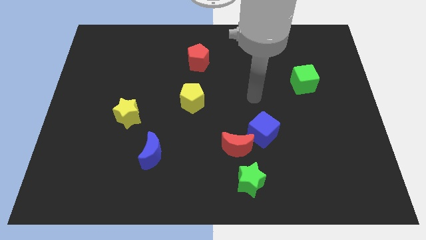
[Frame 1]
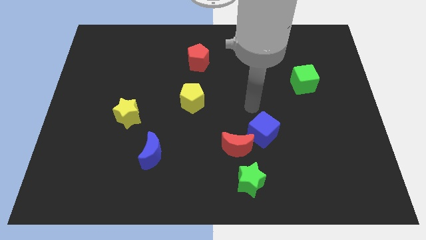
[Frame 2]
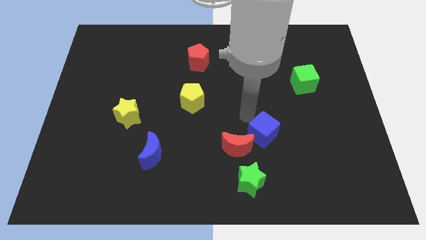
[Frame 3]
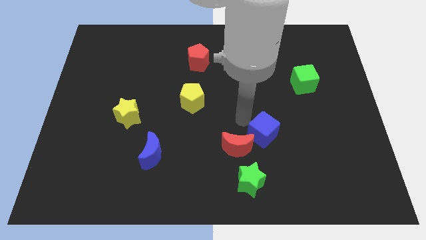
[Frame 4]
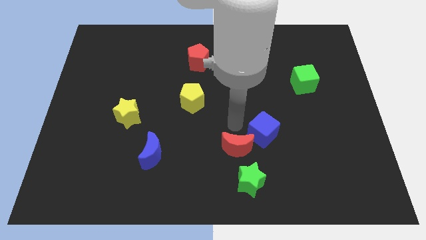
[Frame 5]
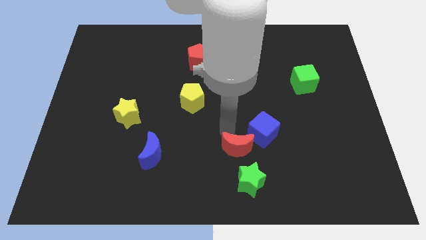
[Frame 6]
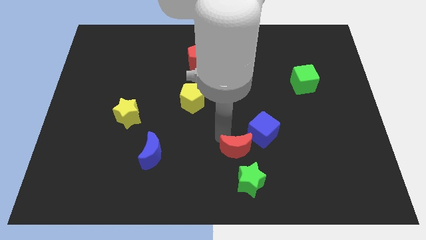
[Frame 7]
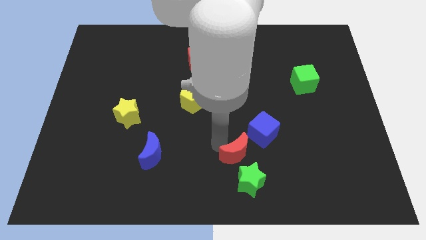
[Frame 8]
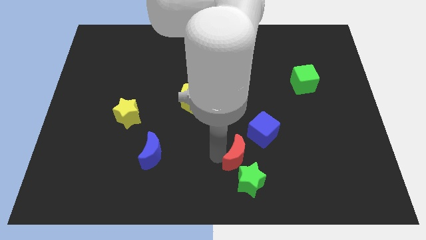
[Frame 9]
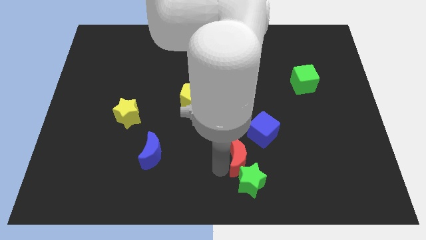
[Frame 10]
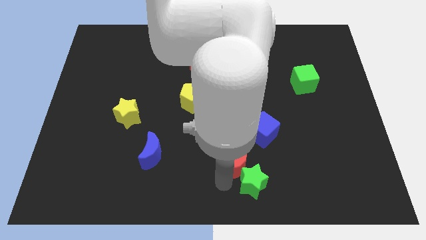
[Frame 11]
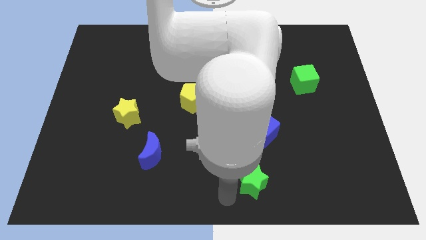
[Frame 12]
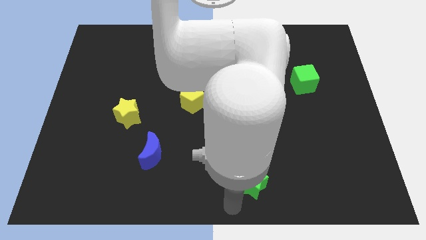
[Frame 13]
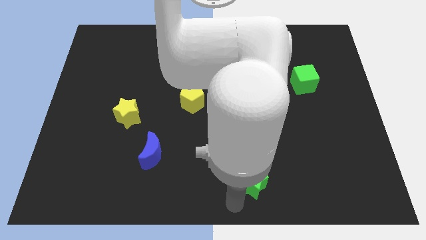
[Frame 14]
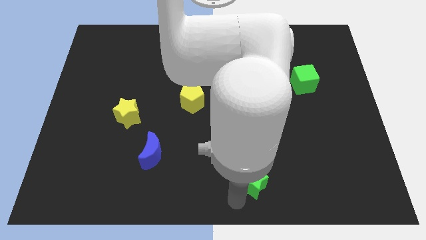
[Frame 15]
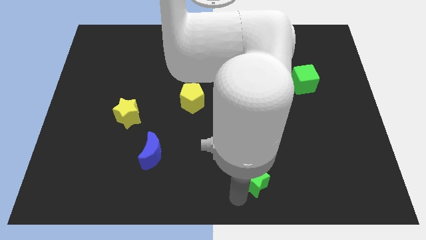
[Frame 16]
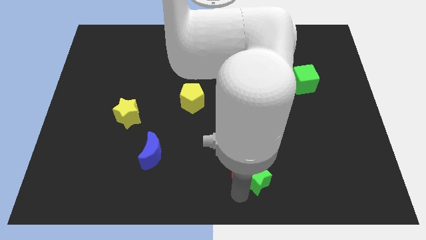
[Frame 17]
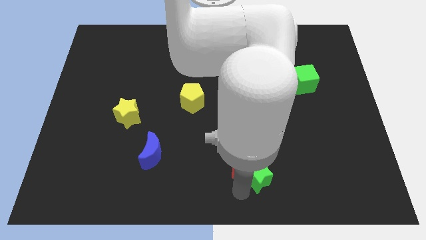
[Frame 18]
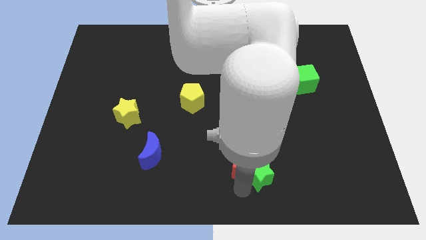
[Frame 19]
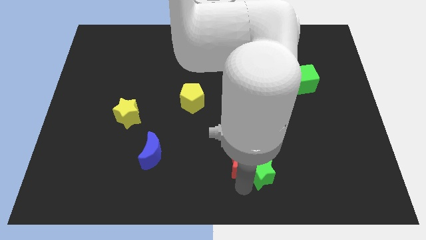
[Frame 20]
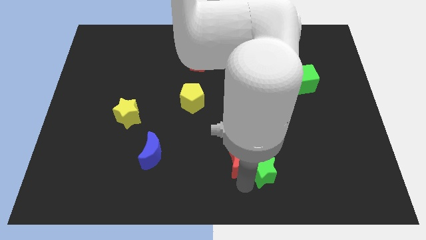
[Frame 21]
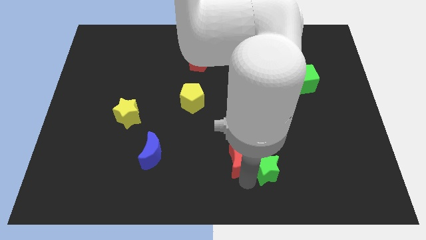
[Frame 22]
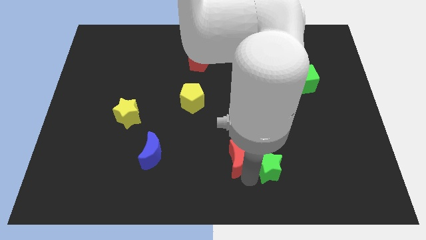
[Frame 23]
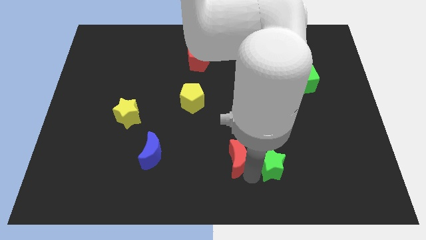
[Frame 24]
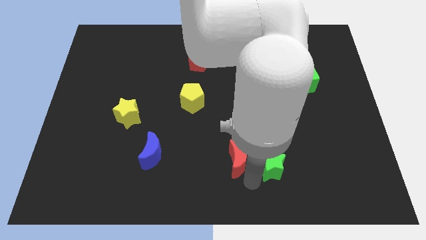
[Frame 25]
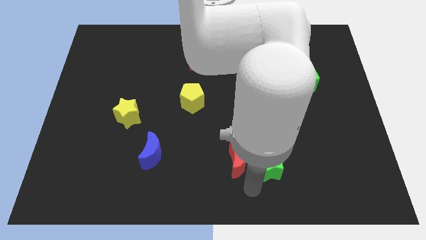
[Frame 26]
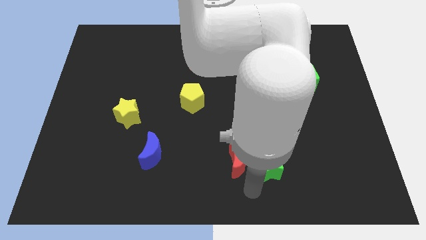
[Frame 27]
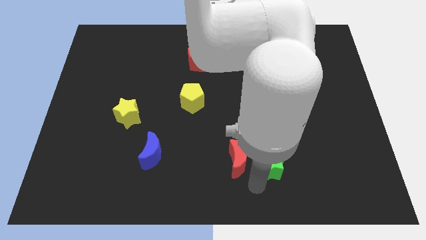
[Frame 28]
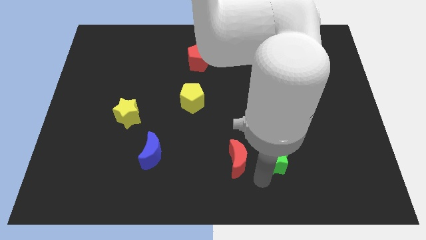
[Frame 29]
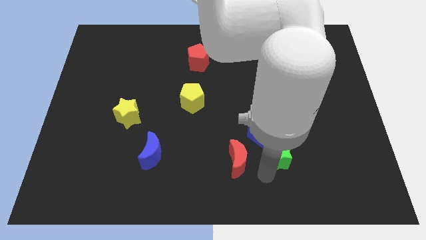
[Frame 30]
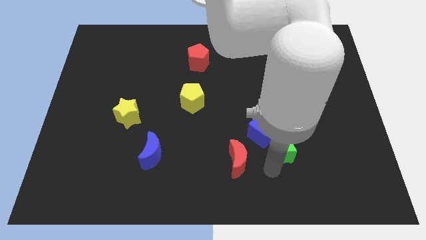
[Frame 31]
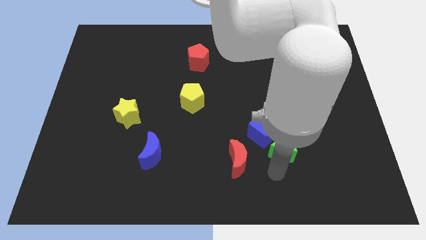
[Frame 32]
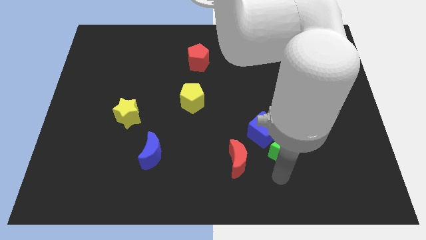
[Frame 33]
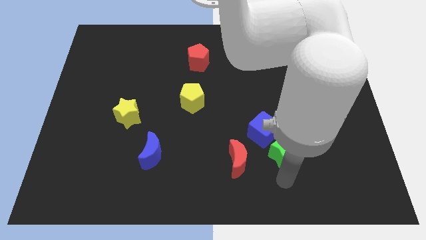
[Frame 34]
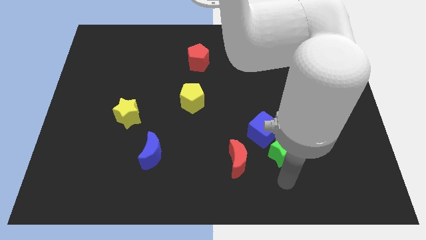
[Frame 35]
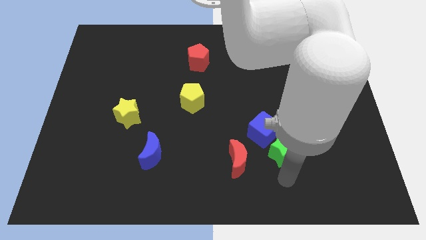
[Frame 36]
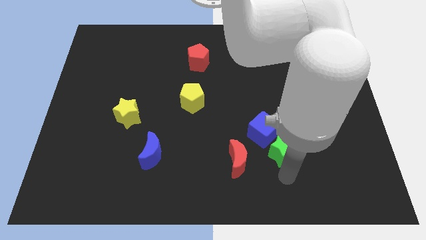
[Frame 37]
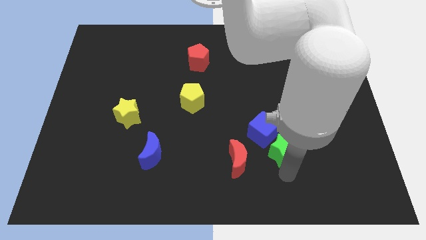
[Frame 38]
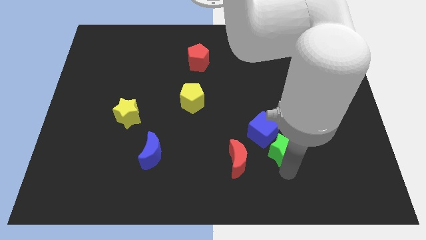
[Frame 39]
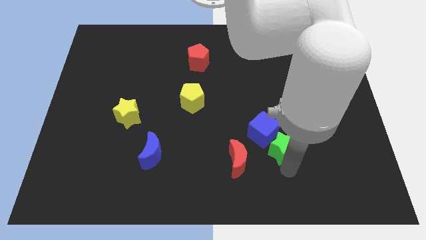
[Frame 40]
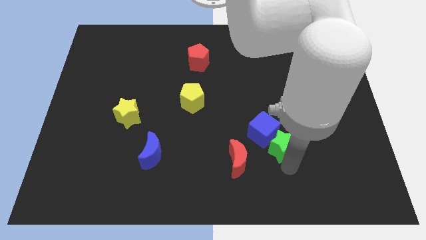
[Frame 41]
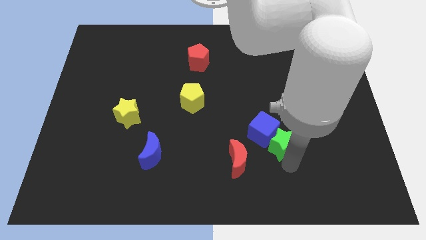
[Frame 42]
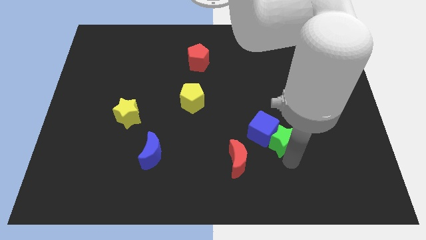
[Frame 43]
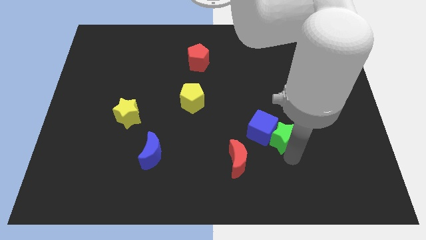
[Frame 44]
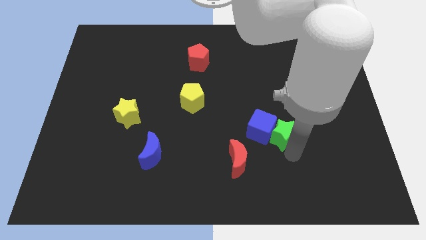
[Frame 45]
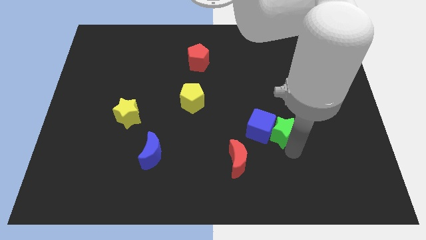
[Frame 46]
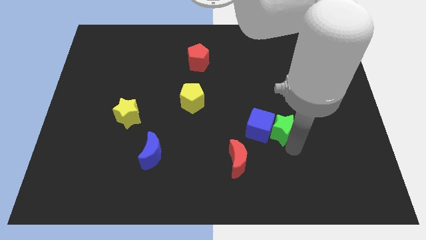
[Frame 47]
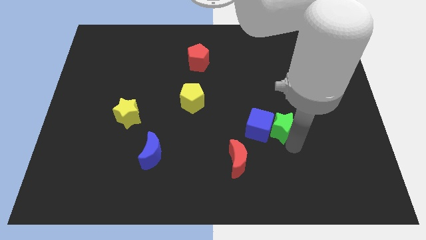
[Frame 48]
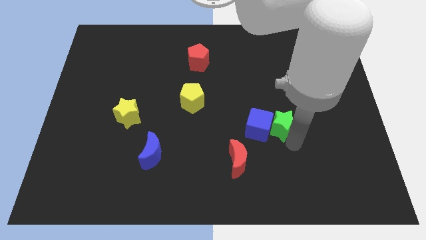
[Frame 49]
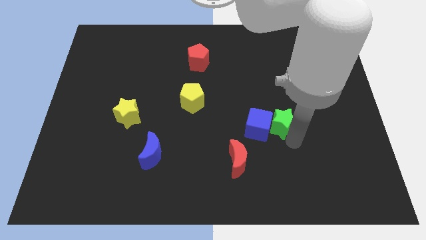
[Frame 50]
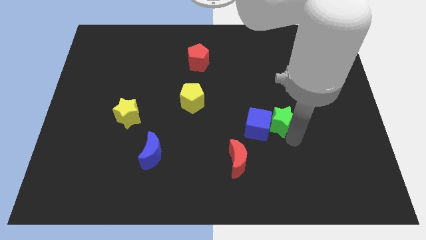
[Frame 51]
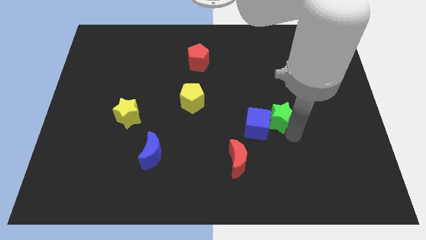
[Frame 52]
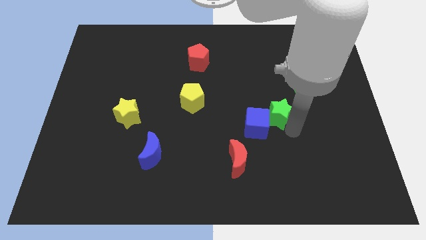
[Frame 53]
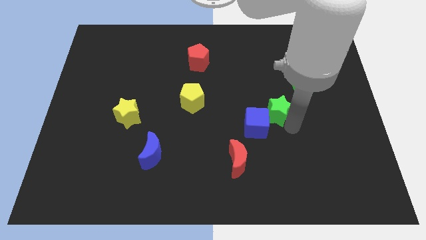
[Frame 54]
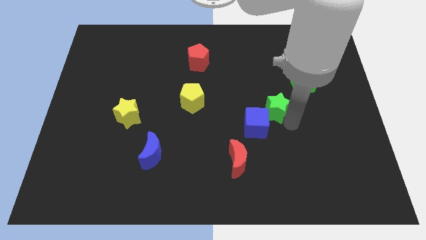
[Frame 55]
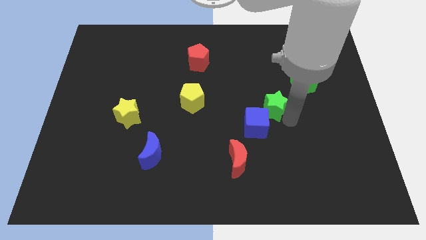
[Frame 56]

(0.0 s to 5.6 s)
move the green star to the top of the blue cube

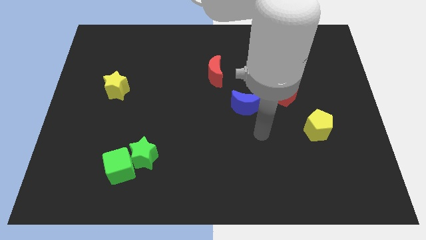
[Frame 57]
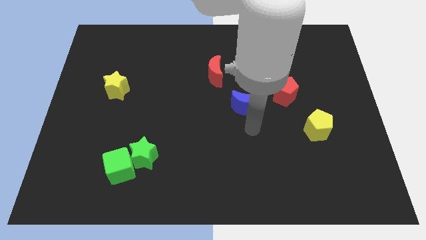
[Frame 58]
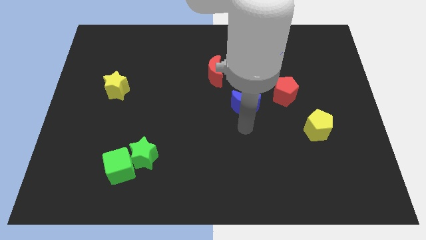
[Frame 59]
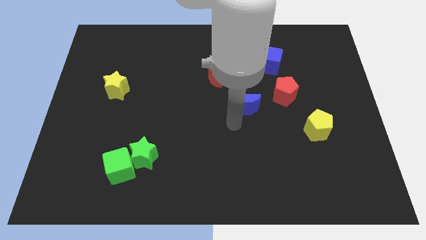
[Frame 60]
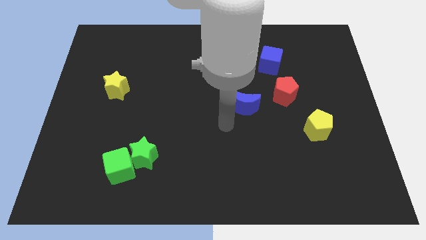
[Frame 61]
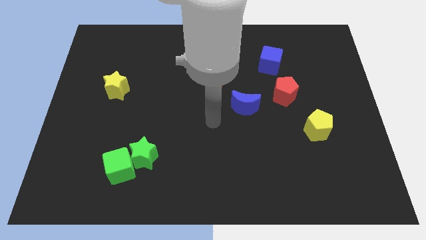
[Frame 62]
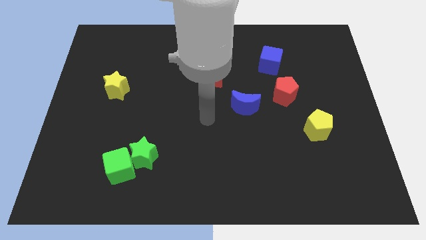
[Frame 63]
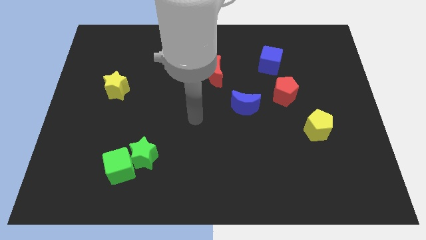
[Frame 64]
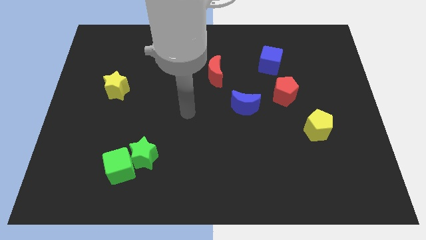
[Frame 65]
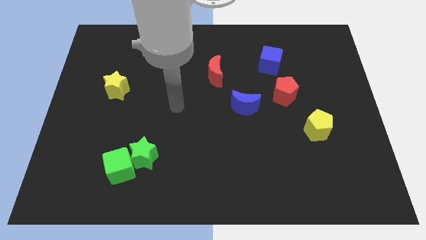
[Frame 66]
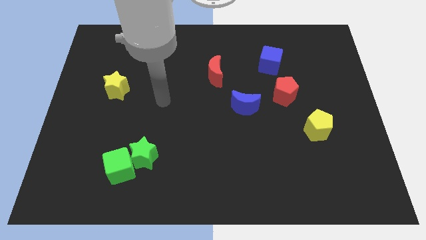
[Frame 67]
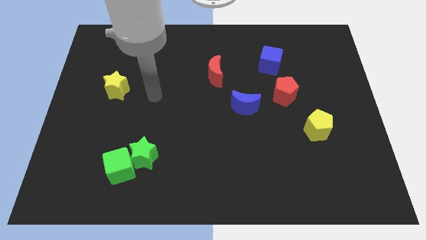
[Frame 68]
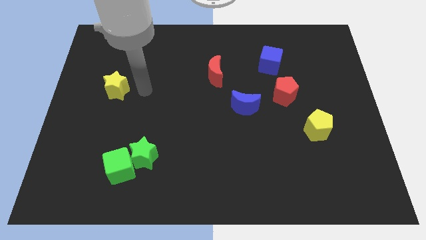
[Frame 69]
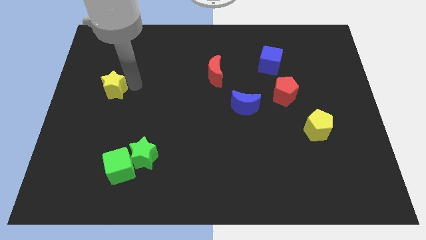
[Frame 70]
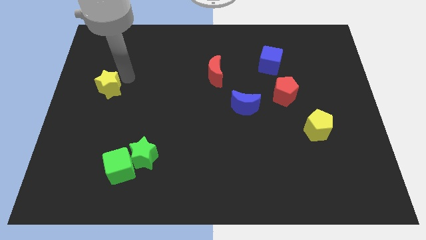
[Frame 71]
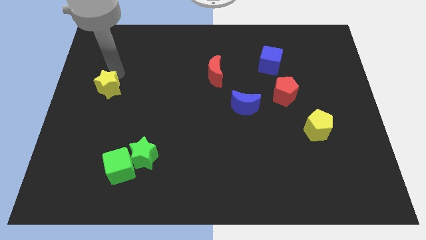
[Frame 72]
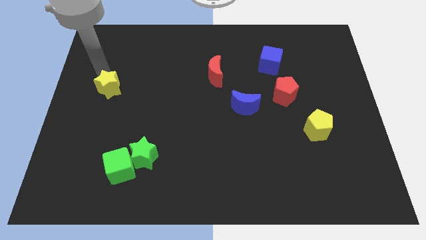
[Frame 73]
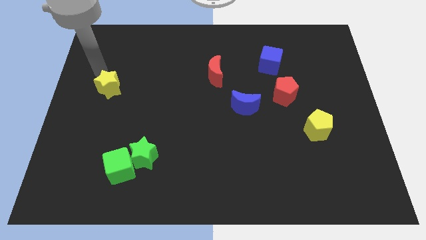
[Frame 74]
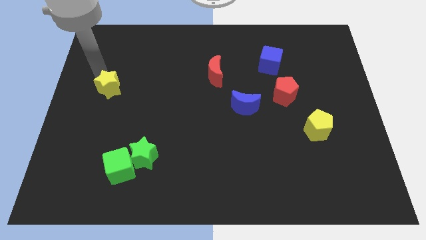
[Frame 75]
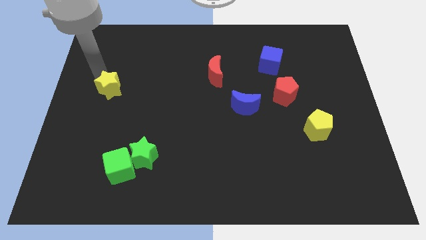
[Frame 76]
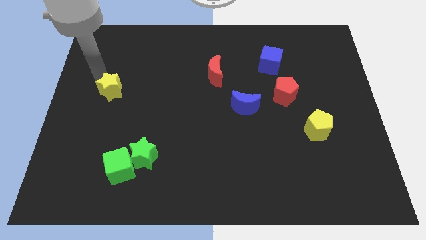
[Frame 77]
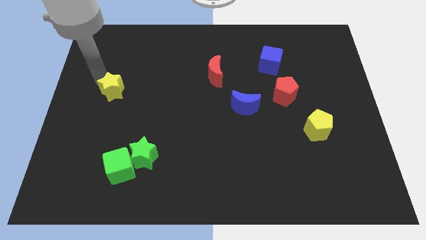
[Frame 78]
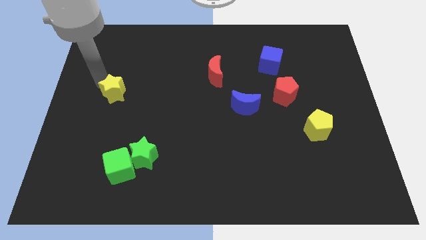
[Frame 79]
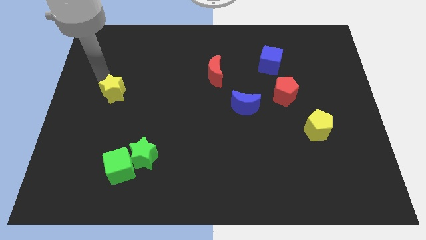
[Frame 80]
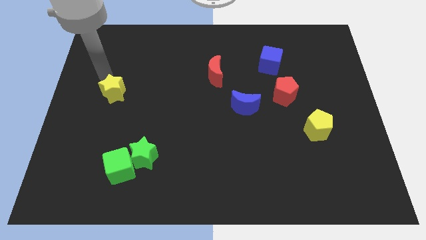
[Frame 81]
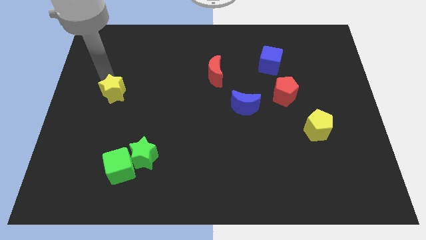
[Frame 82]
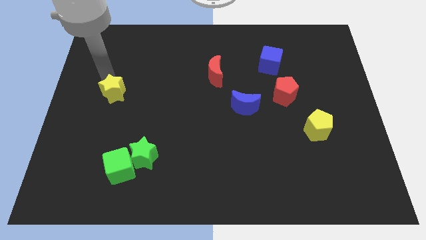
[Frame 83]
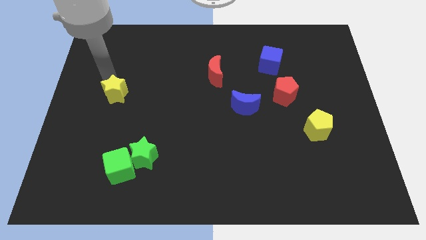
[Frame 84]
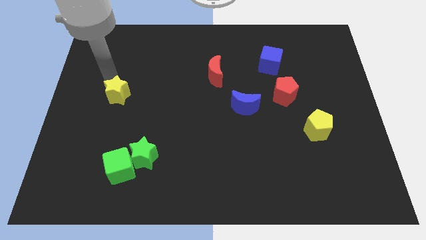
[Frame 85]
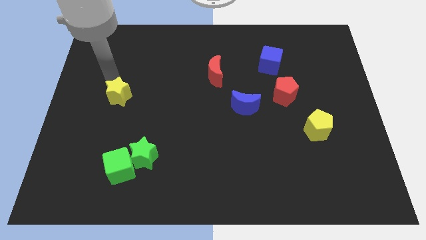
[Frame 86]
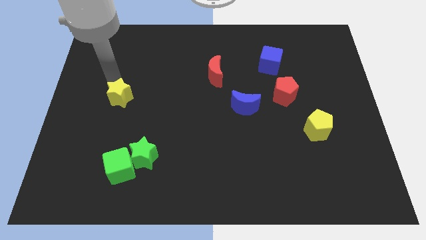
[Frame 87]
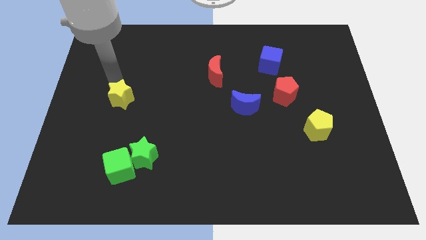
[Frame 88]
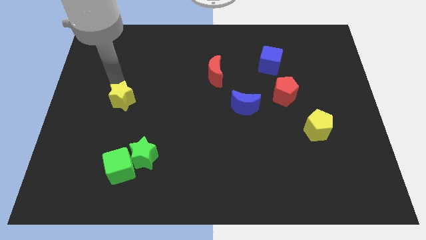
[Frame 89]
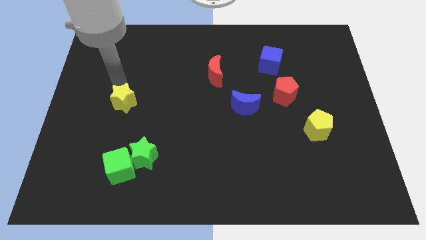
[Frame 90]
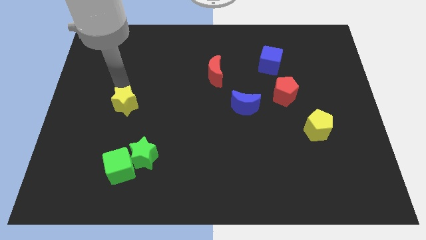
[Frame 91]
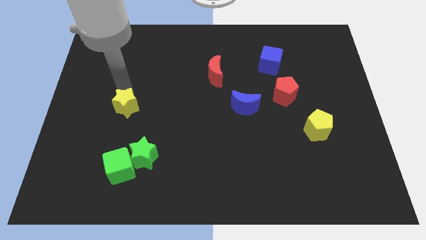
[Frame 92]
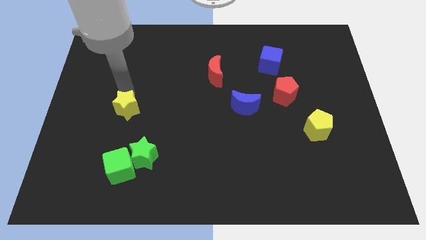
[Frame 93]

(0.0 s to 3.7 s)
push the yellow star to the top of the green cube
